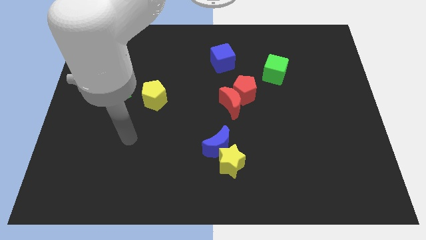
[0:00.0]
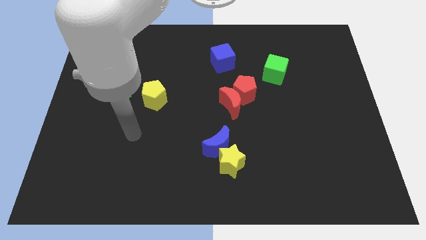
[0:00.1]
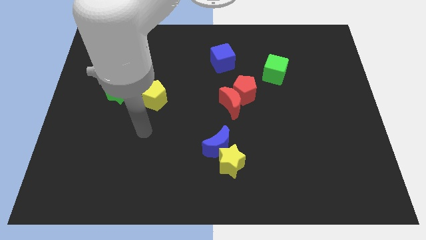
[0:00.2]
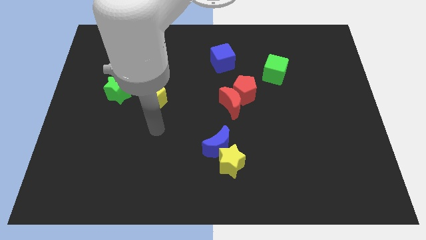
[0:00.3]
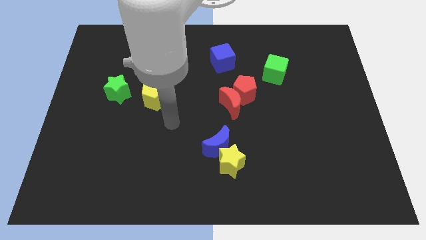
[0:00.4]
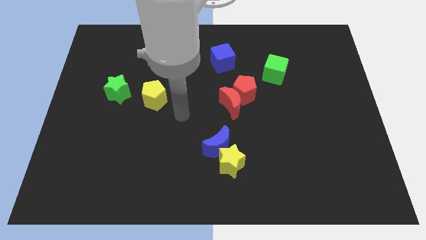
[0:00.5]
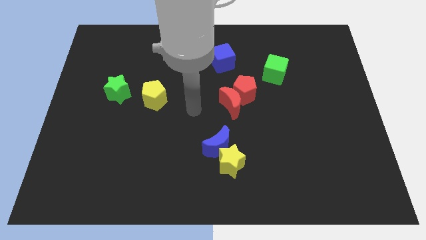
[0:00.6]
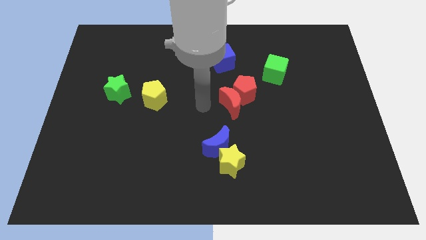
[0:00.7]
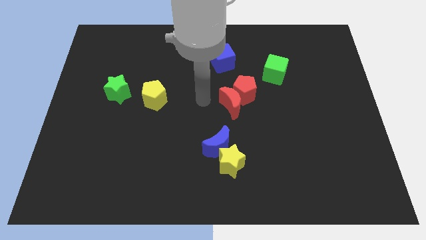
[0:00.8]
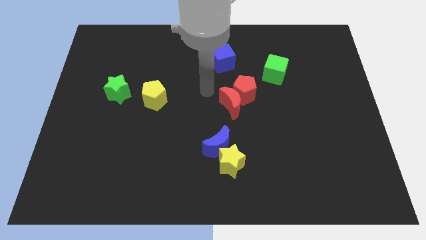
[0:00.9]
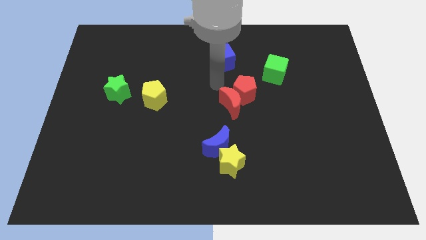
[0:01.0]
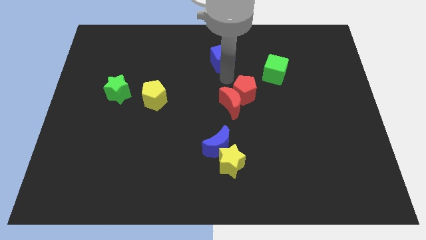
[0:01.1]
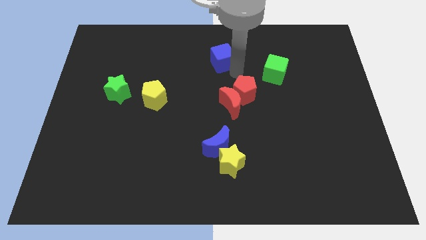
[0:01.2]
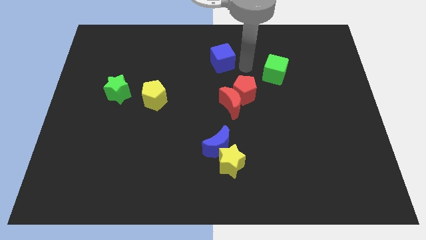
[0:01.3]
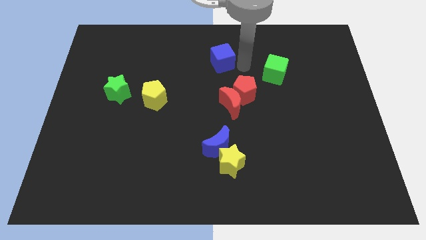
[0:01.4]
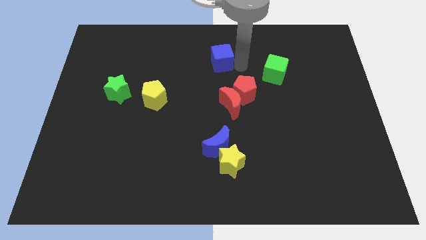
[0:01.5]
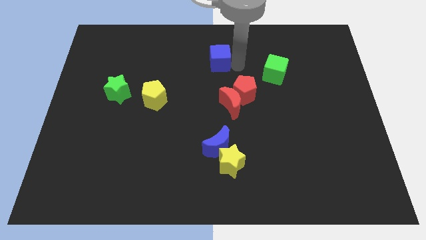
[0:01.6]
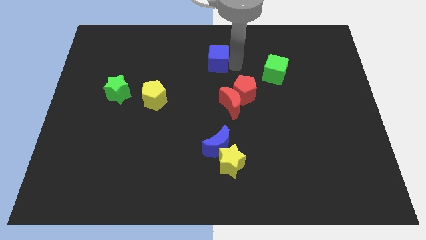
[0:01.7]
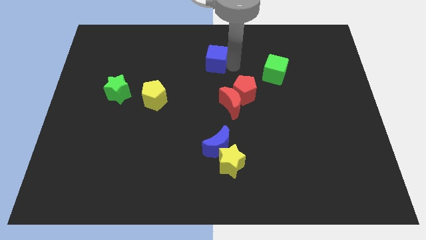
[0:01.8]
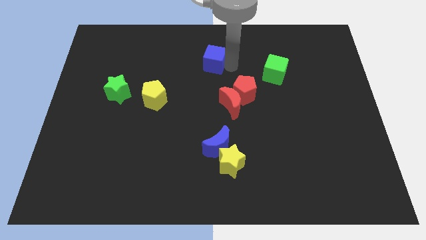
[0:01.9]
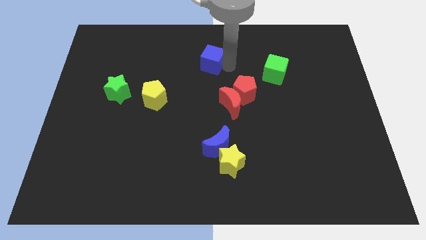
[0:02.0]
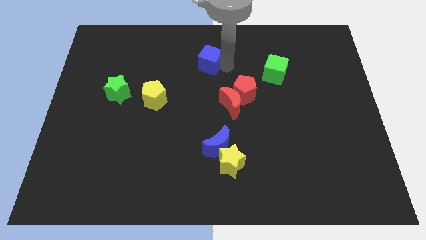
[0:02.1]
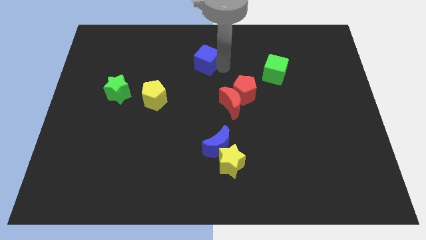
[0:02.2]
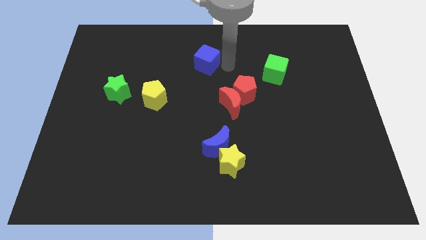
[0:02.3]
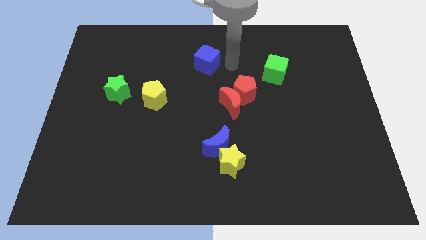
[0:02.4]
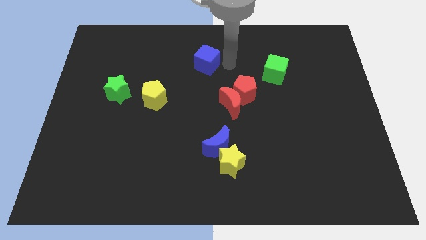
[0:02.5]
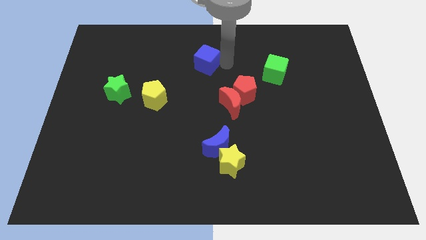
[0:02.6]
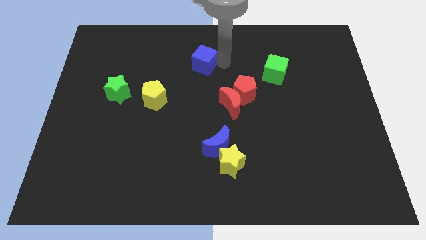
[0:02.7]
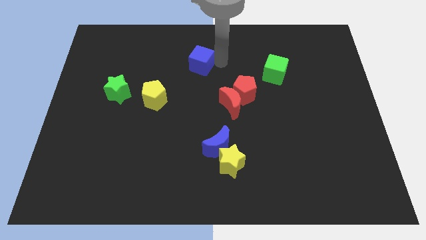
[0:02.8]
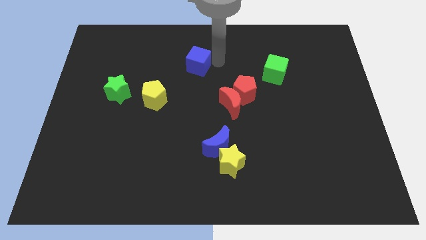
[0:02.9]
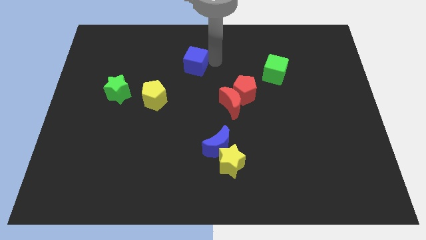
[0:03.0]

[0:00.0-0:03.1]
push the blue cube a bit left

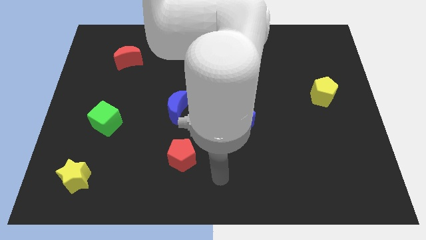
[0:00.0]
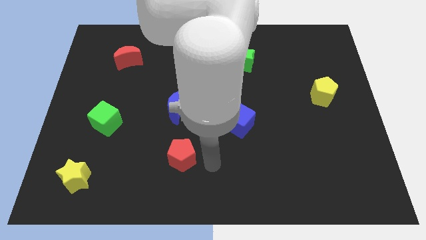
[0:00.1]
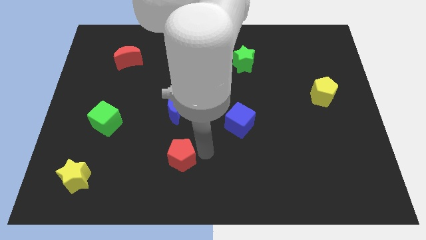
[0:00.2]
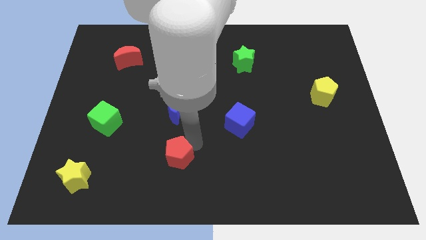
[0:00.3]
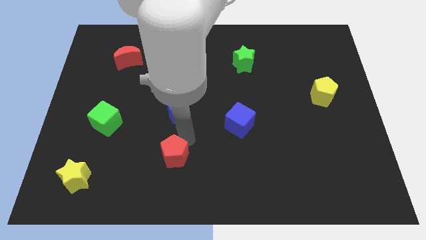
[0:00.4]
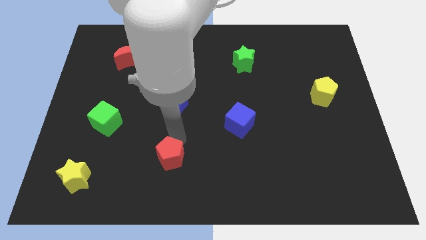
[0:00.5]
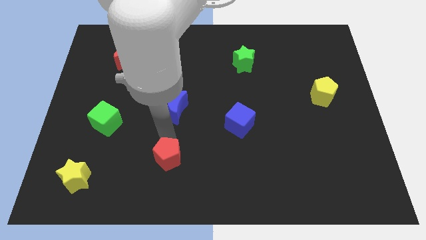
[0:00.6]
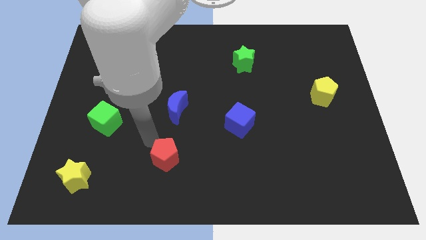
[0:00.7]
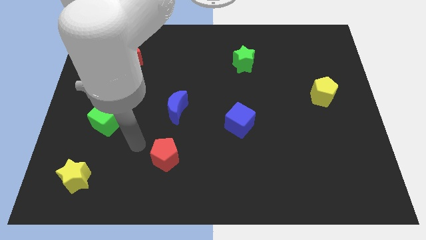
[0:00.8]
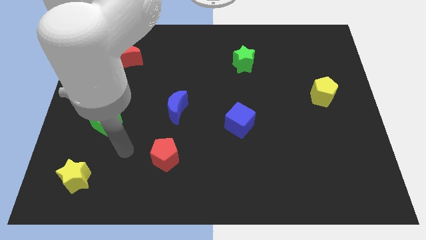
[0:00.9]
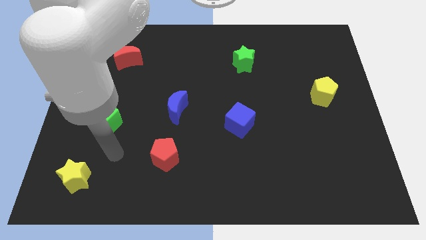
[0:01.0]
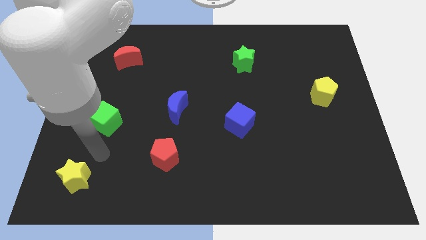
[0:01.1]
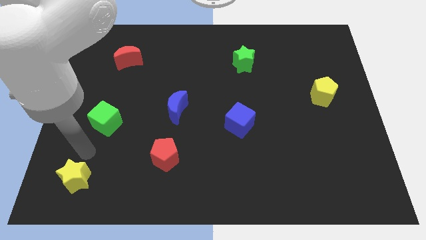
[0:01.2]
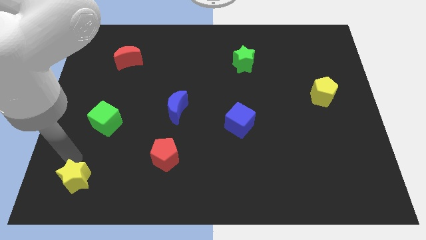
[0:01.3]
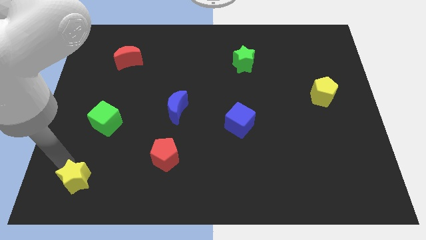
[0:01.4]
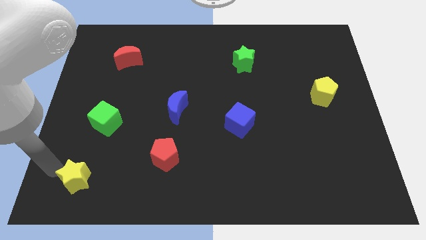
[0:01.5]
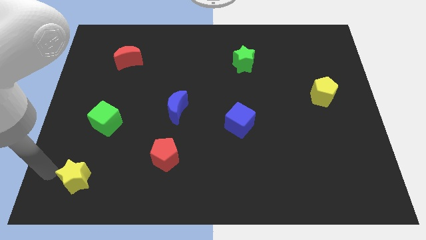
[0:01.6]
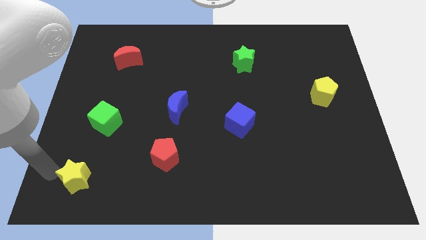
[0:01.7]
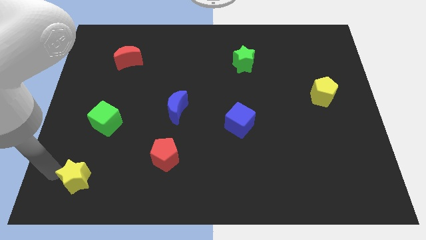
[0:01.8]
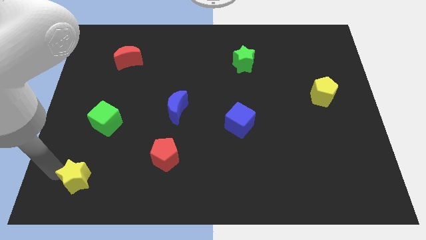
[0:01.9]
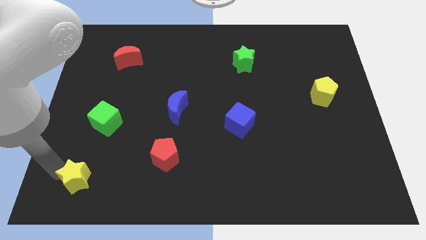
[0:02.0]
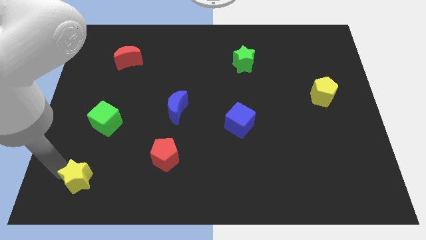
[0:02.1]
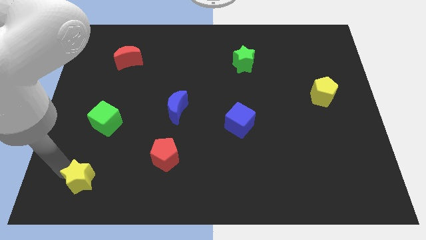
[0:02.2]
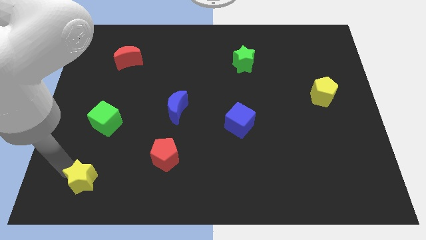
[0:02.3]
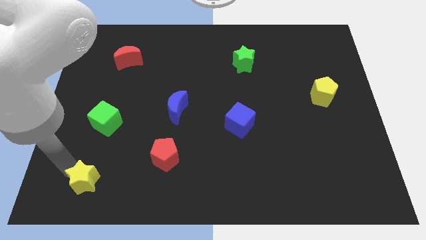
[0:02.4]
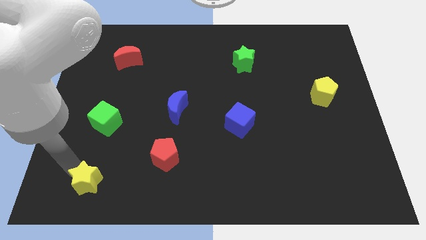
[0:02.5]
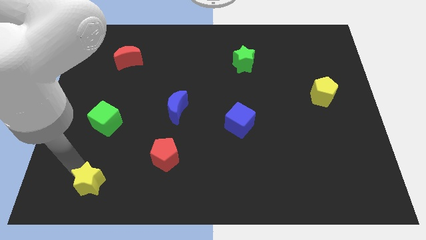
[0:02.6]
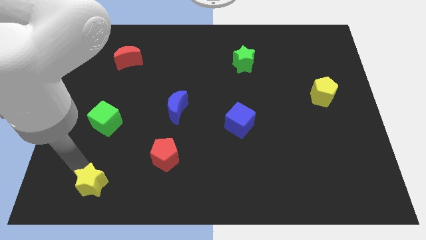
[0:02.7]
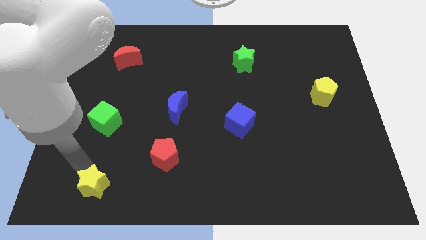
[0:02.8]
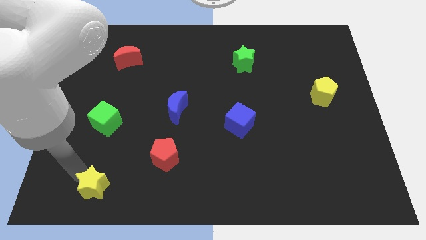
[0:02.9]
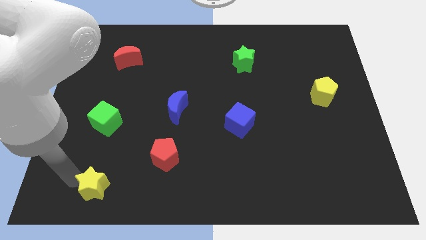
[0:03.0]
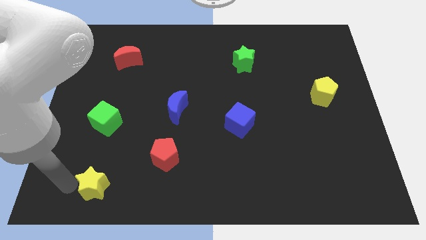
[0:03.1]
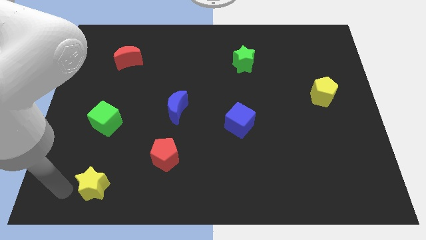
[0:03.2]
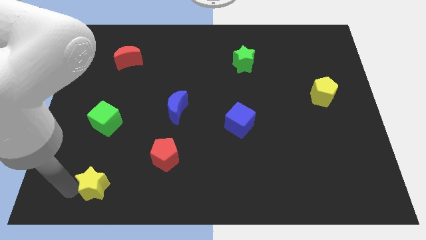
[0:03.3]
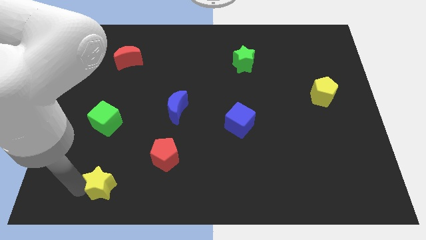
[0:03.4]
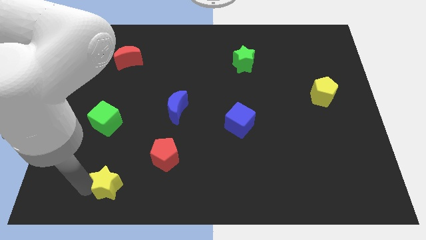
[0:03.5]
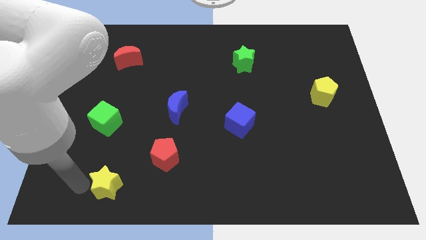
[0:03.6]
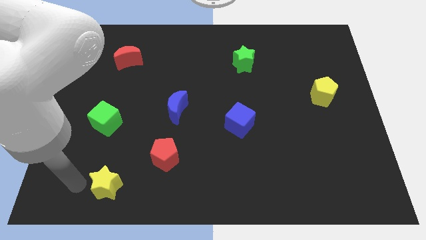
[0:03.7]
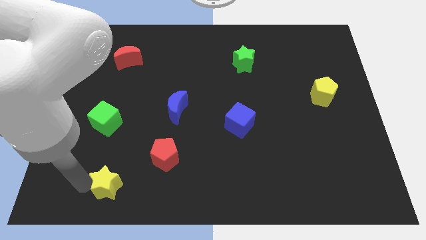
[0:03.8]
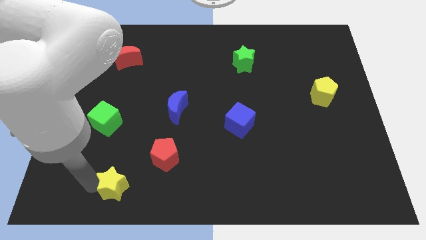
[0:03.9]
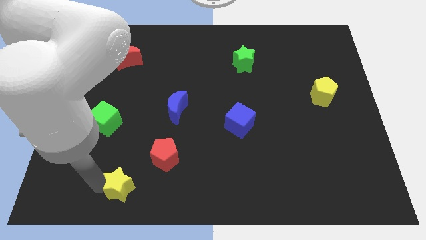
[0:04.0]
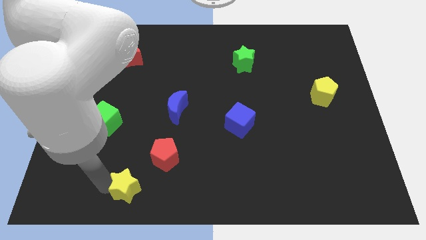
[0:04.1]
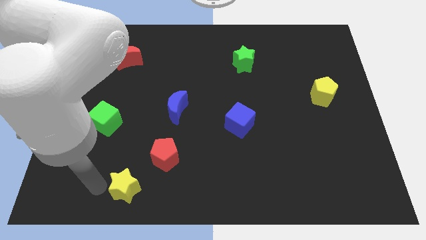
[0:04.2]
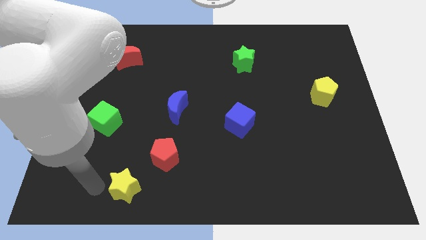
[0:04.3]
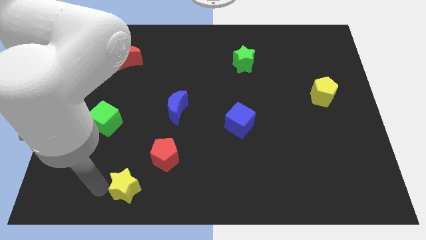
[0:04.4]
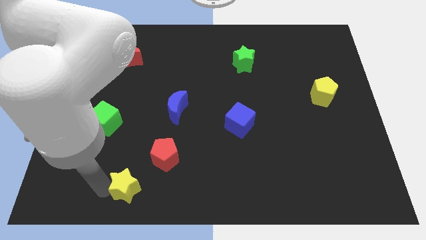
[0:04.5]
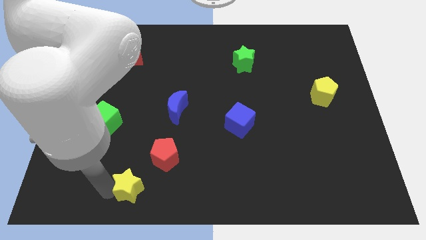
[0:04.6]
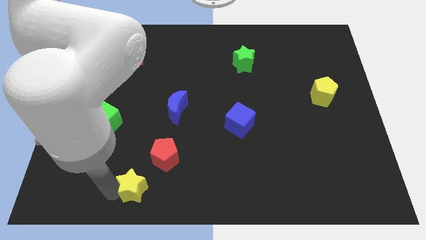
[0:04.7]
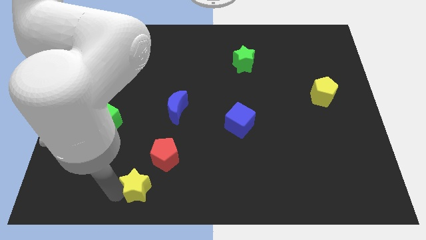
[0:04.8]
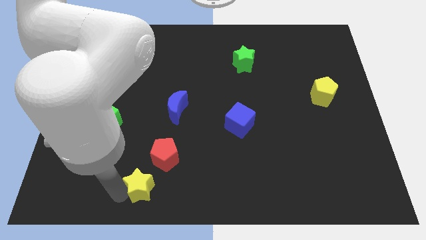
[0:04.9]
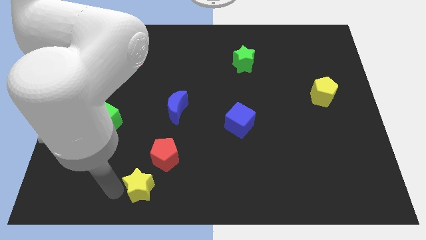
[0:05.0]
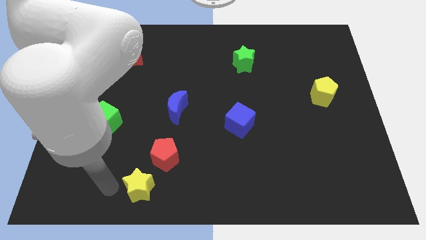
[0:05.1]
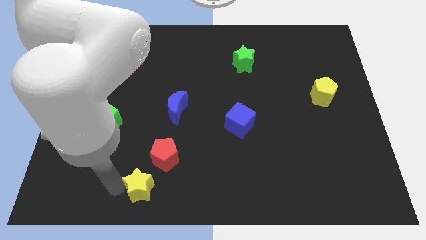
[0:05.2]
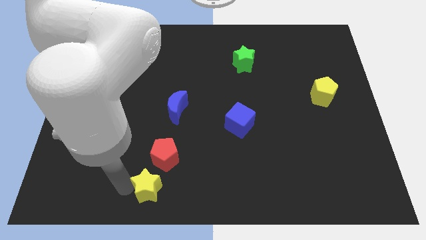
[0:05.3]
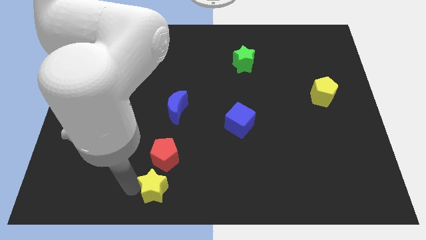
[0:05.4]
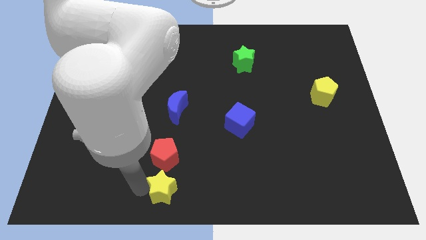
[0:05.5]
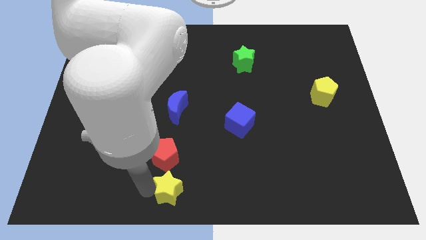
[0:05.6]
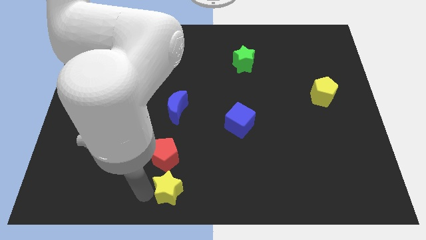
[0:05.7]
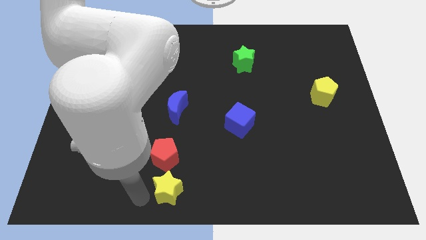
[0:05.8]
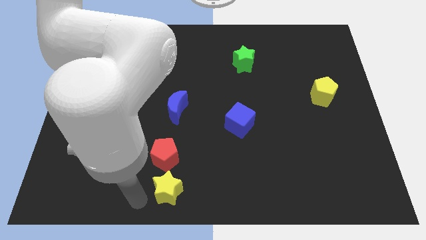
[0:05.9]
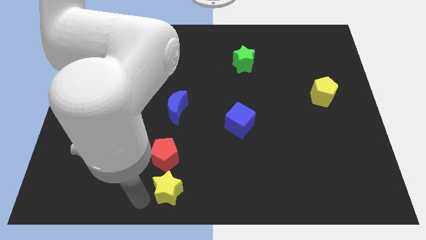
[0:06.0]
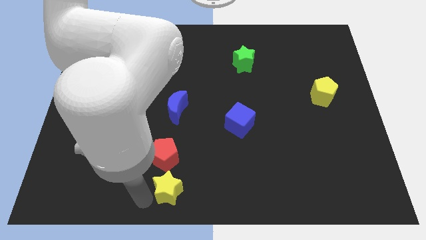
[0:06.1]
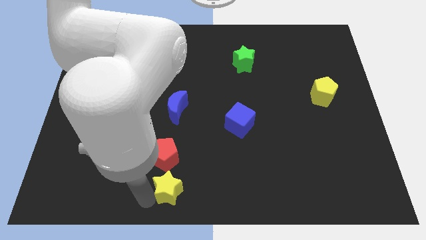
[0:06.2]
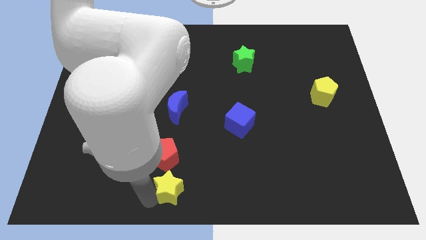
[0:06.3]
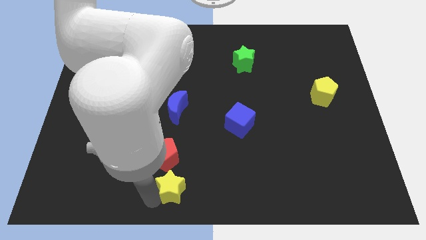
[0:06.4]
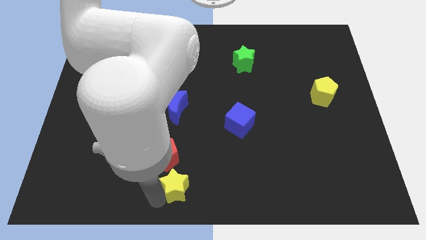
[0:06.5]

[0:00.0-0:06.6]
push the yellow star to the right
